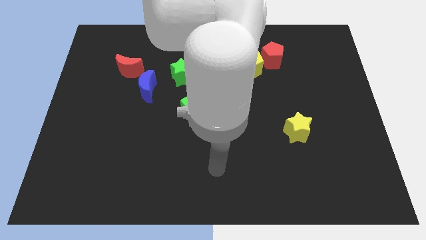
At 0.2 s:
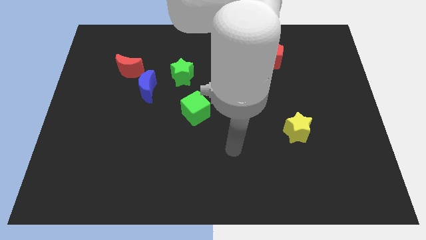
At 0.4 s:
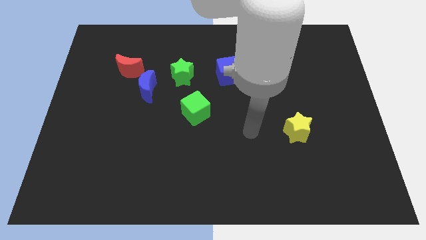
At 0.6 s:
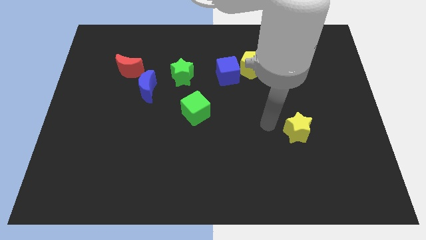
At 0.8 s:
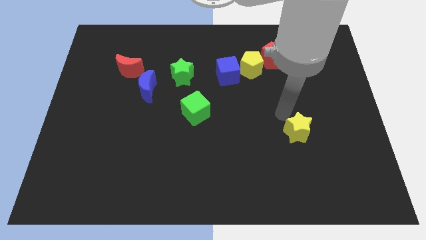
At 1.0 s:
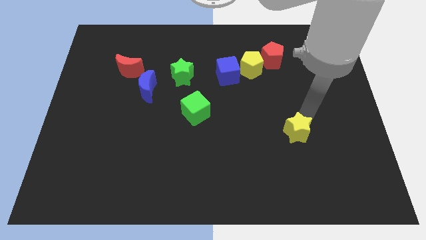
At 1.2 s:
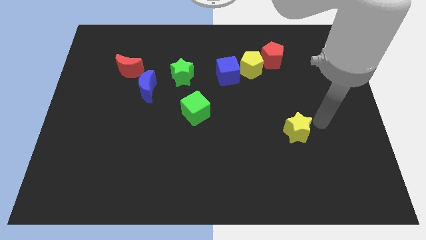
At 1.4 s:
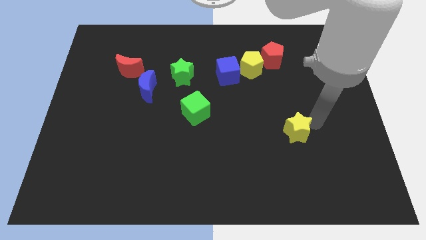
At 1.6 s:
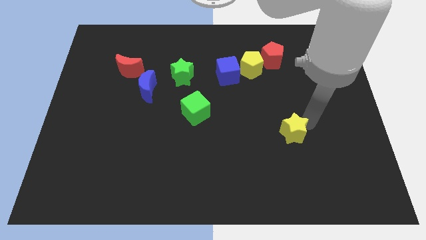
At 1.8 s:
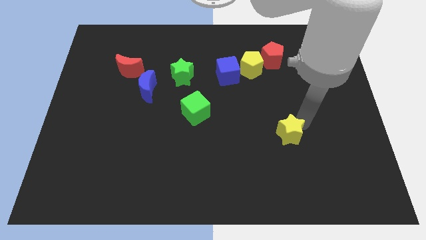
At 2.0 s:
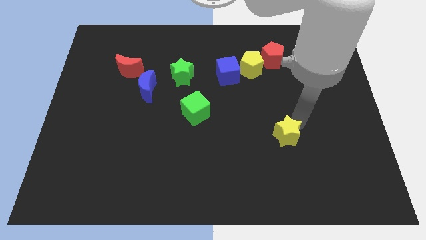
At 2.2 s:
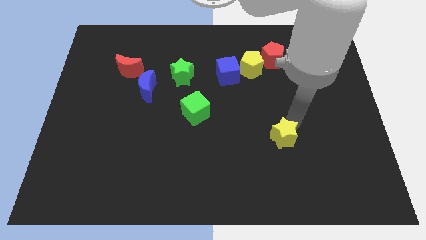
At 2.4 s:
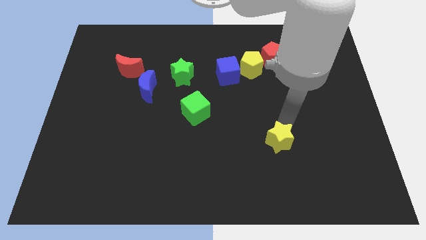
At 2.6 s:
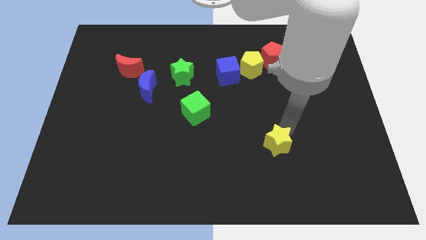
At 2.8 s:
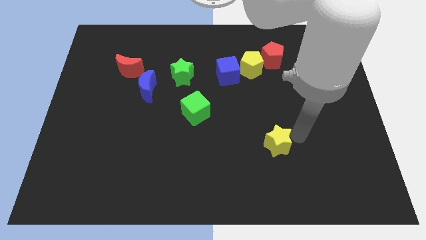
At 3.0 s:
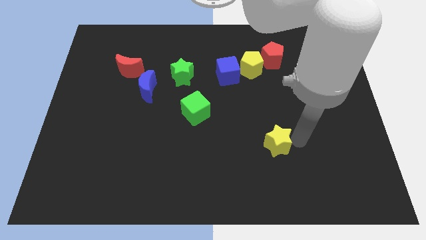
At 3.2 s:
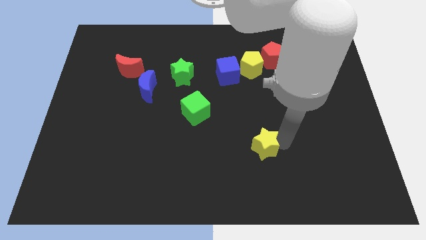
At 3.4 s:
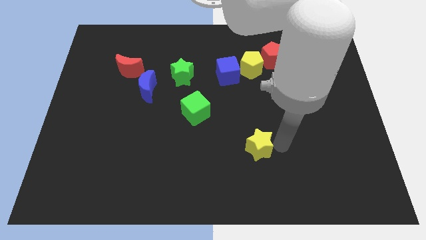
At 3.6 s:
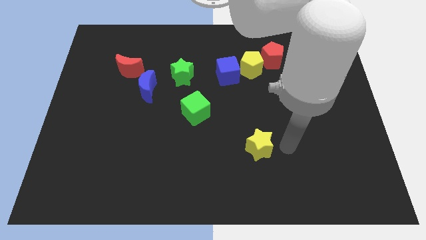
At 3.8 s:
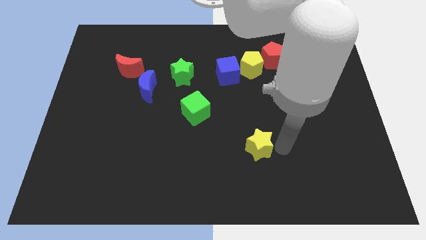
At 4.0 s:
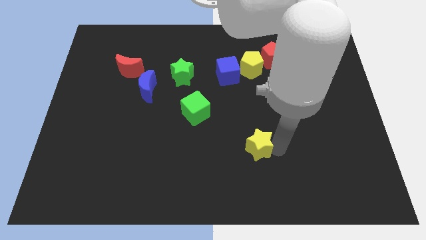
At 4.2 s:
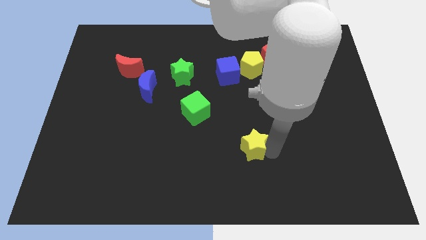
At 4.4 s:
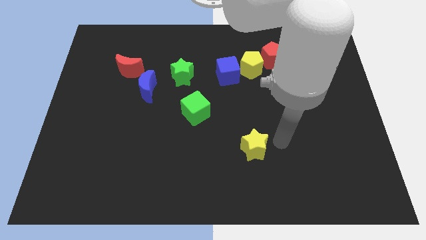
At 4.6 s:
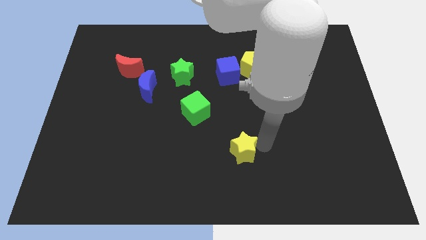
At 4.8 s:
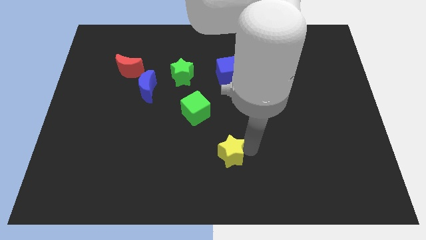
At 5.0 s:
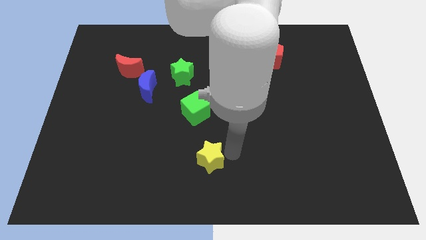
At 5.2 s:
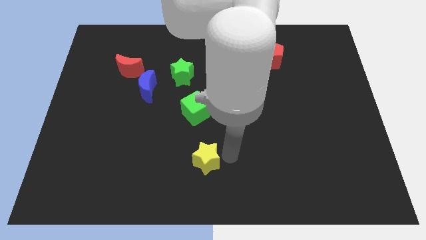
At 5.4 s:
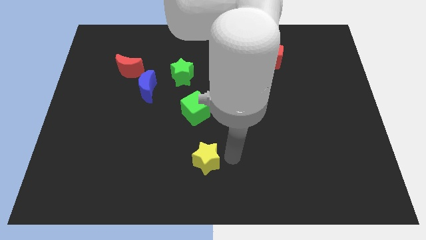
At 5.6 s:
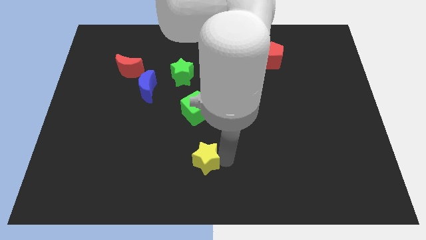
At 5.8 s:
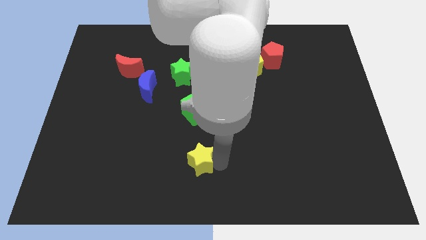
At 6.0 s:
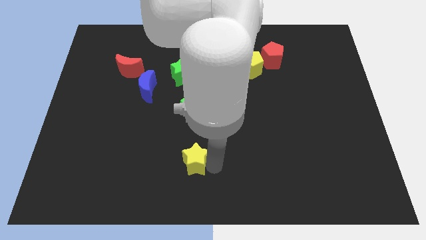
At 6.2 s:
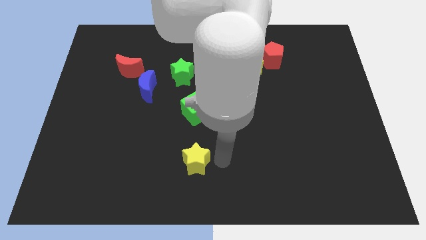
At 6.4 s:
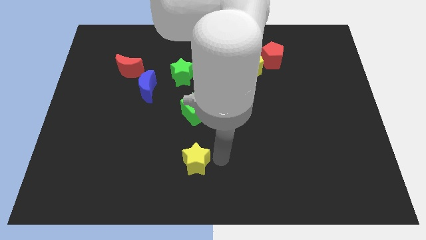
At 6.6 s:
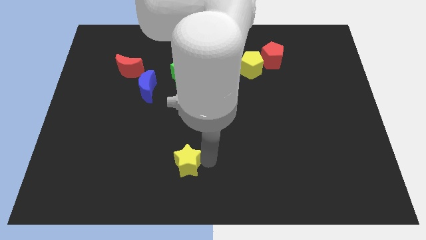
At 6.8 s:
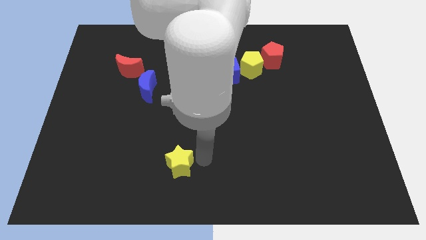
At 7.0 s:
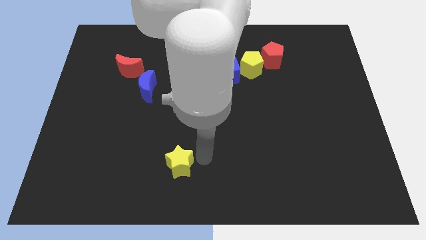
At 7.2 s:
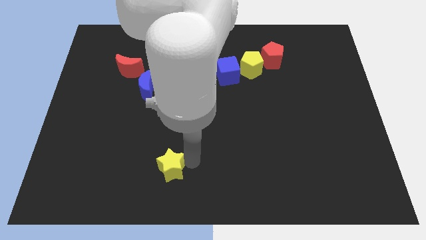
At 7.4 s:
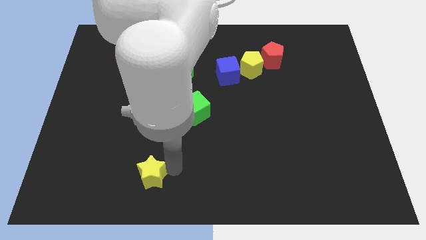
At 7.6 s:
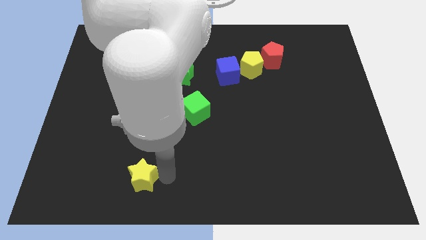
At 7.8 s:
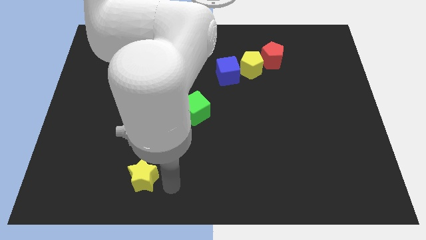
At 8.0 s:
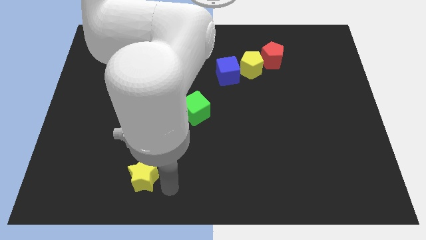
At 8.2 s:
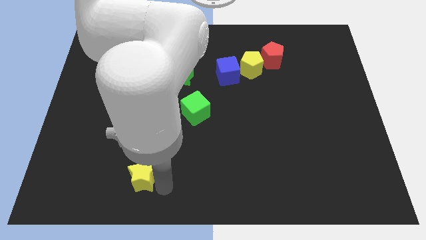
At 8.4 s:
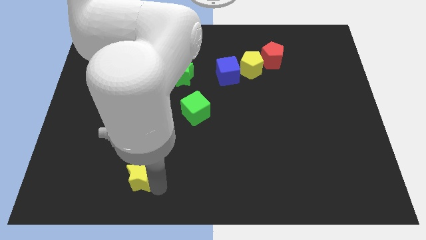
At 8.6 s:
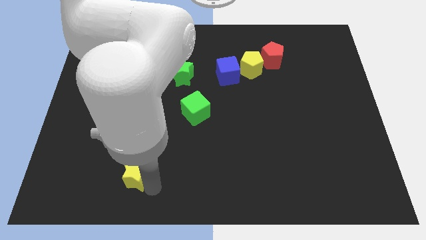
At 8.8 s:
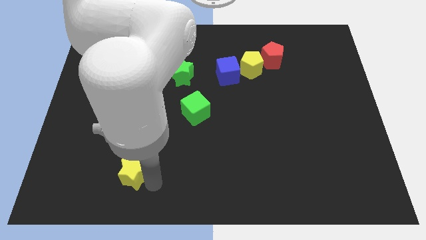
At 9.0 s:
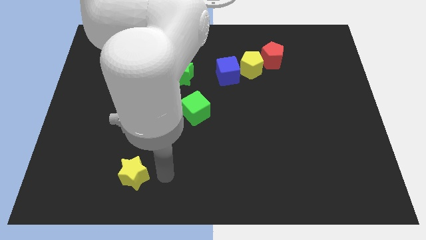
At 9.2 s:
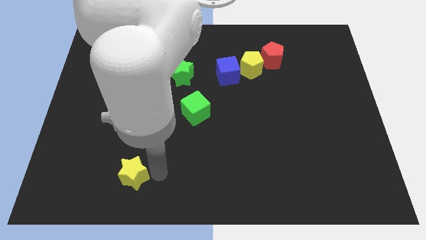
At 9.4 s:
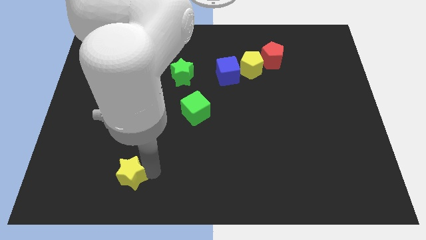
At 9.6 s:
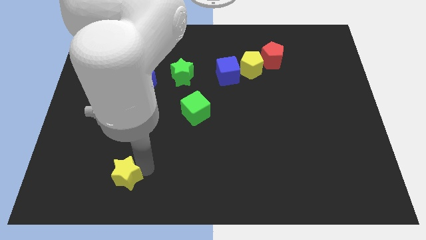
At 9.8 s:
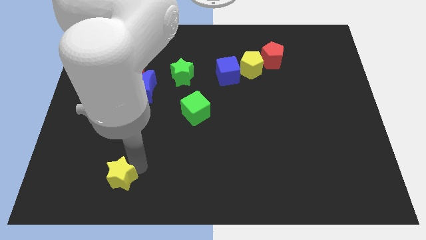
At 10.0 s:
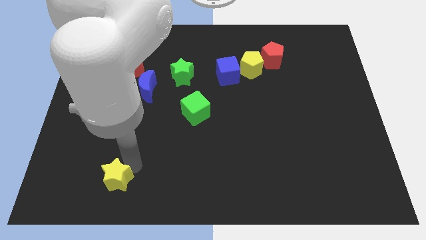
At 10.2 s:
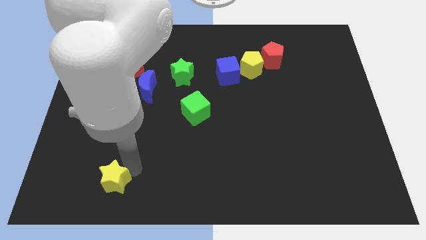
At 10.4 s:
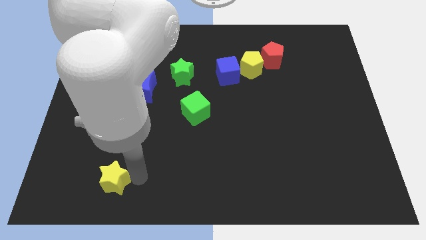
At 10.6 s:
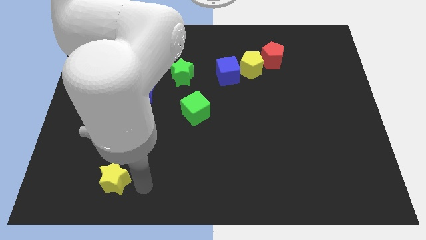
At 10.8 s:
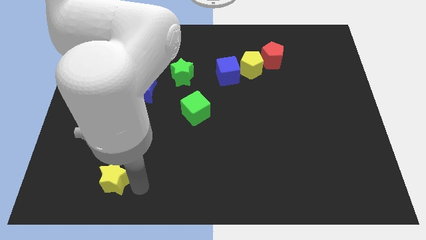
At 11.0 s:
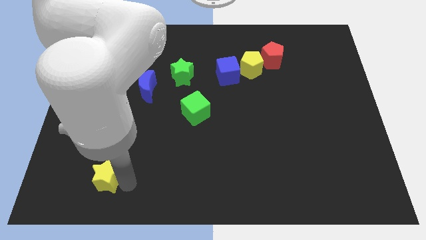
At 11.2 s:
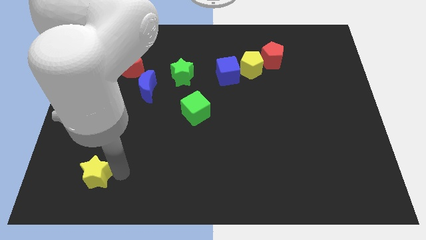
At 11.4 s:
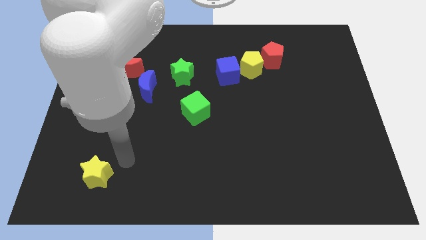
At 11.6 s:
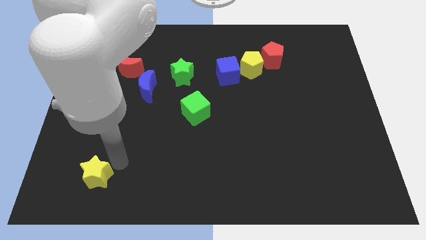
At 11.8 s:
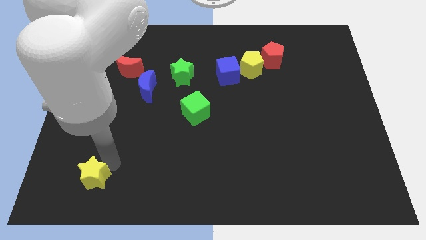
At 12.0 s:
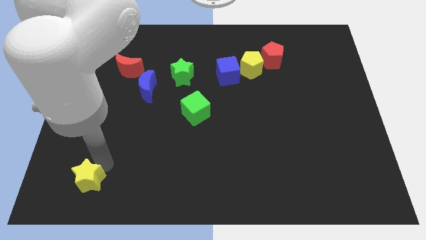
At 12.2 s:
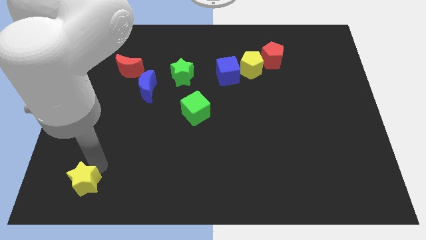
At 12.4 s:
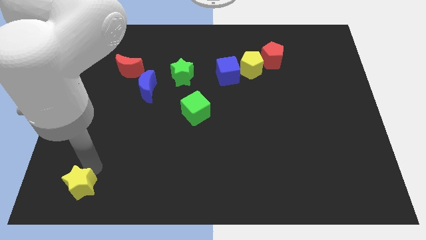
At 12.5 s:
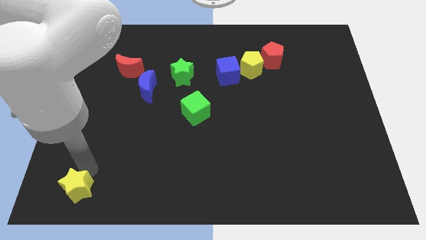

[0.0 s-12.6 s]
slide the yellow star to the lower left corner

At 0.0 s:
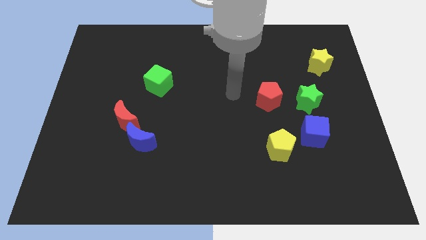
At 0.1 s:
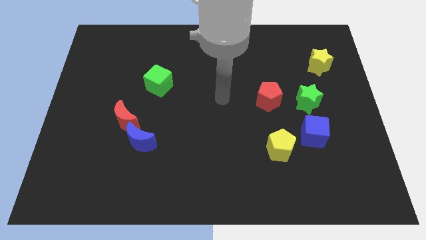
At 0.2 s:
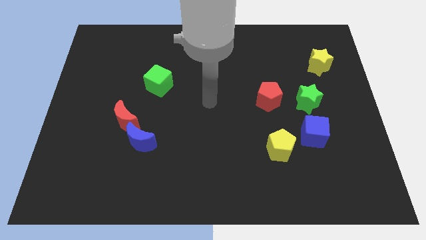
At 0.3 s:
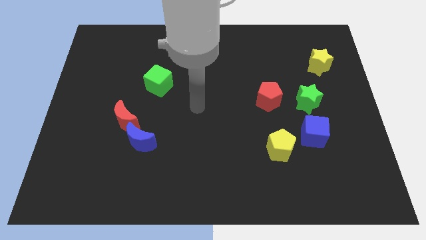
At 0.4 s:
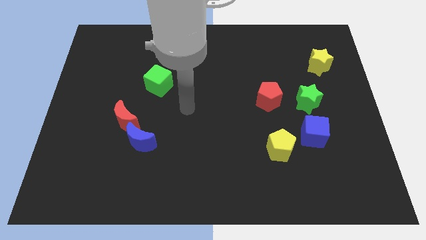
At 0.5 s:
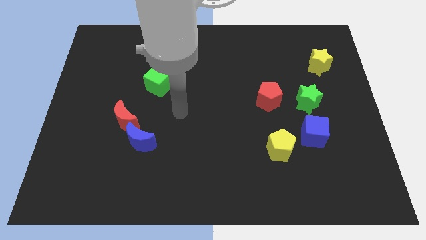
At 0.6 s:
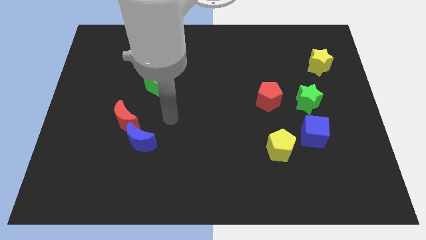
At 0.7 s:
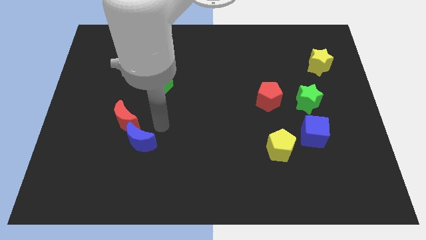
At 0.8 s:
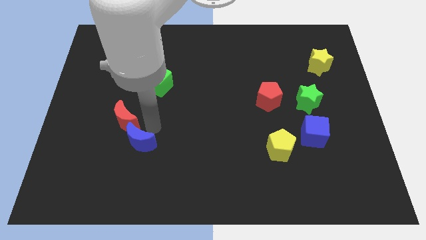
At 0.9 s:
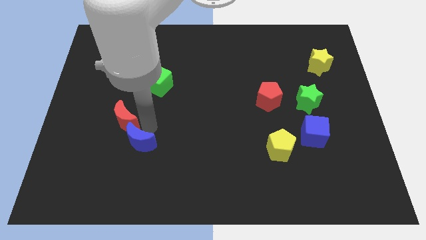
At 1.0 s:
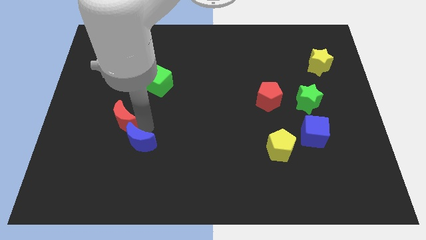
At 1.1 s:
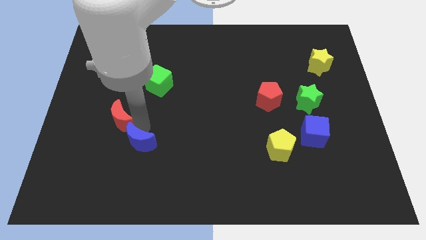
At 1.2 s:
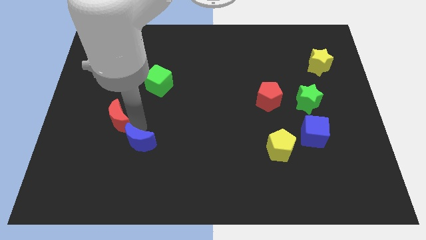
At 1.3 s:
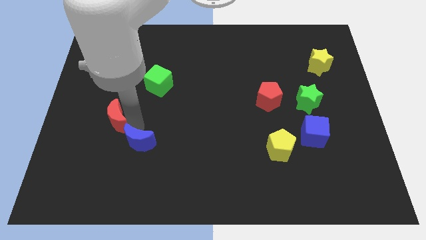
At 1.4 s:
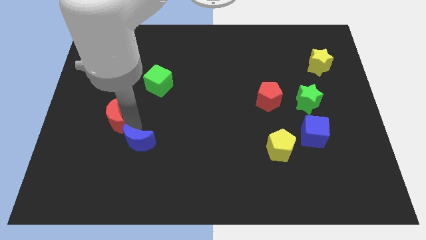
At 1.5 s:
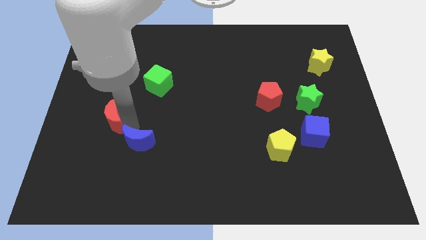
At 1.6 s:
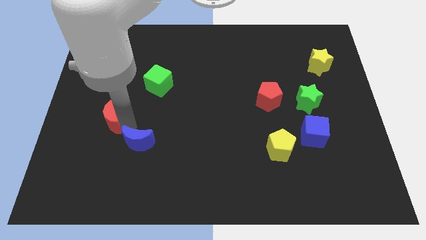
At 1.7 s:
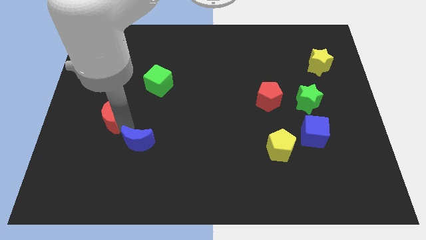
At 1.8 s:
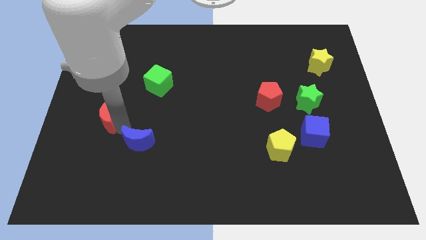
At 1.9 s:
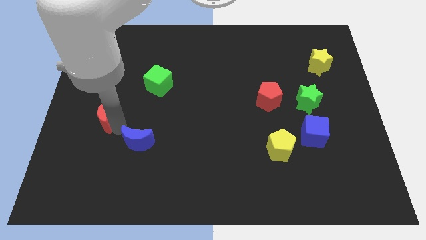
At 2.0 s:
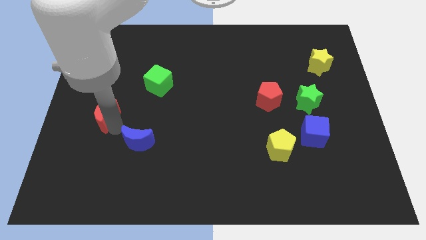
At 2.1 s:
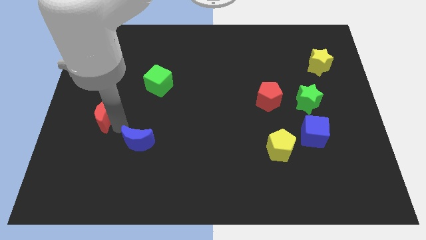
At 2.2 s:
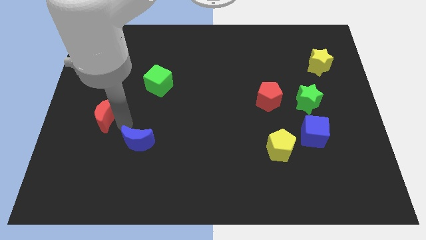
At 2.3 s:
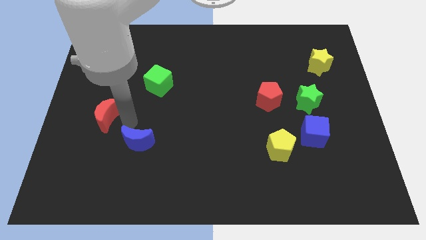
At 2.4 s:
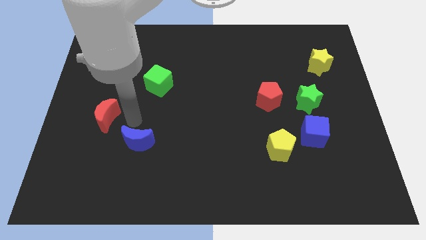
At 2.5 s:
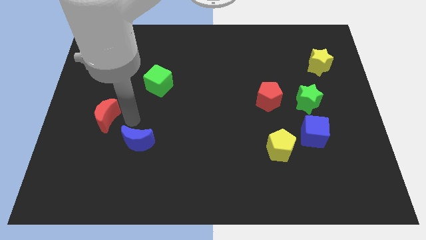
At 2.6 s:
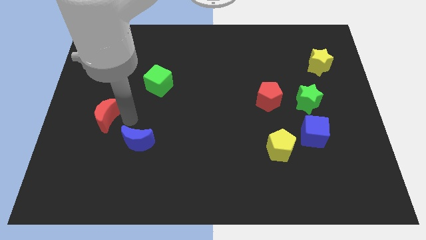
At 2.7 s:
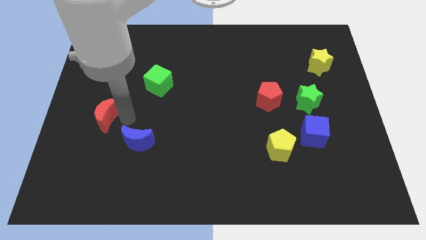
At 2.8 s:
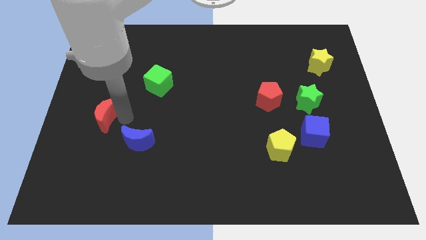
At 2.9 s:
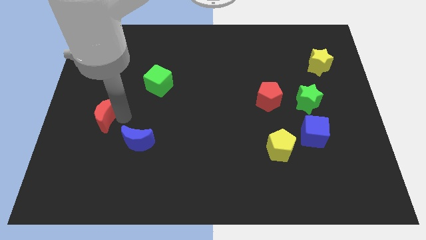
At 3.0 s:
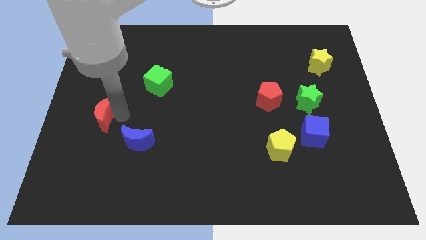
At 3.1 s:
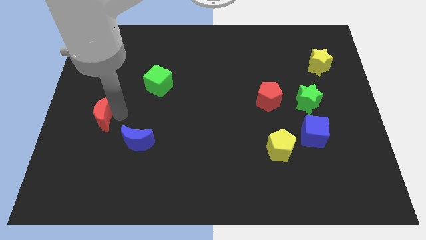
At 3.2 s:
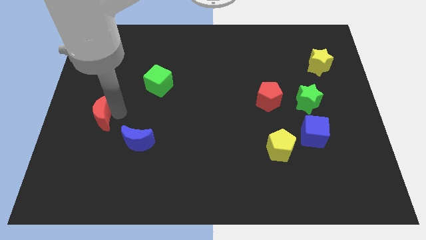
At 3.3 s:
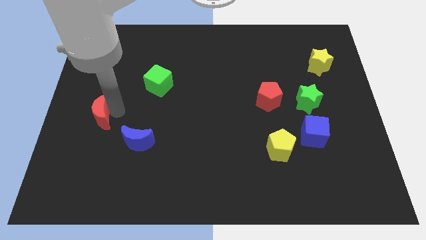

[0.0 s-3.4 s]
slide the red moon to the left side of the board
